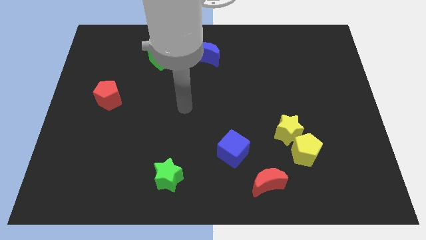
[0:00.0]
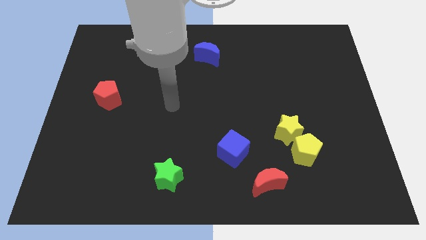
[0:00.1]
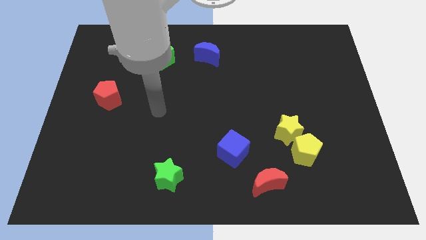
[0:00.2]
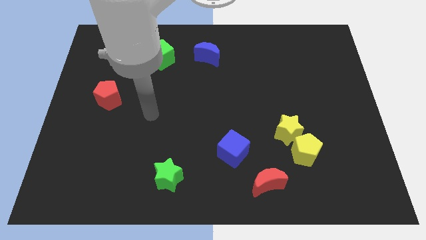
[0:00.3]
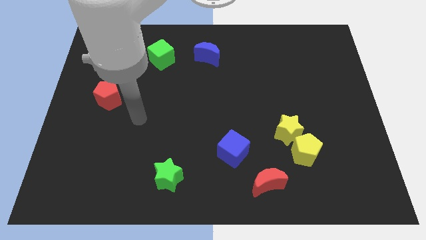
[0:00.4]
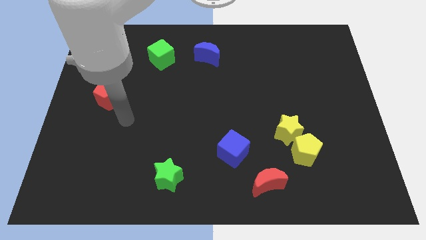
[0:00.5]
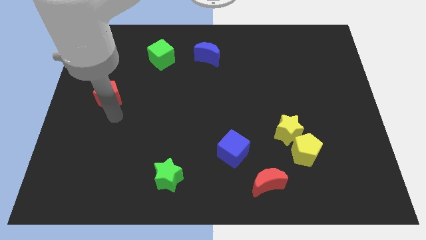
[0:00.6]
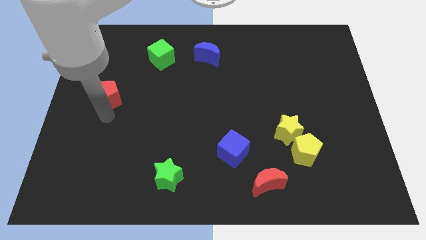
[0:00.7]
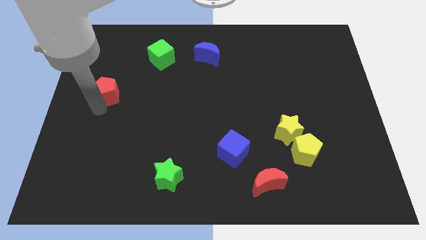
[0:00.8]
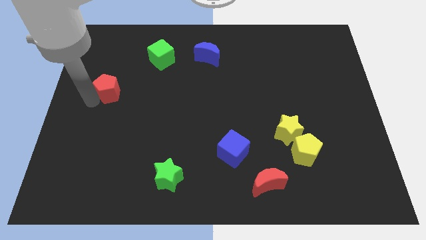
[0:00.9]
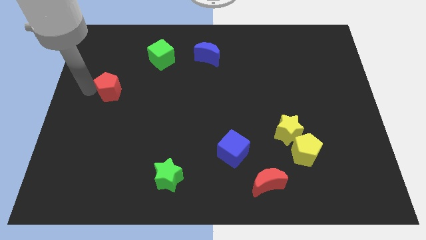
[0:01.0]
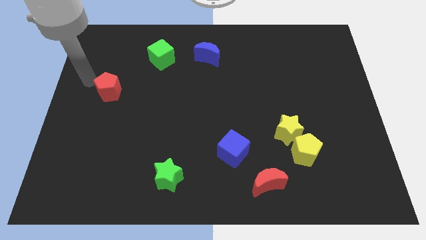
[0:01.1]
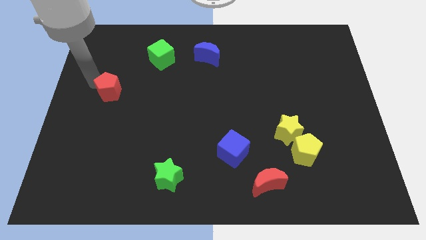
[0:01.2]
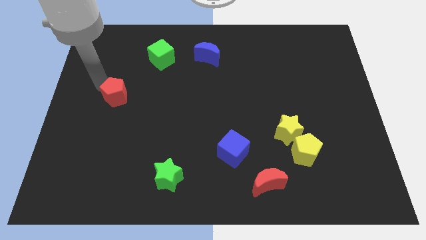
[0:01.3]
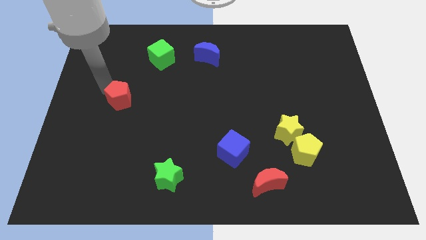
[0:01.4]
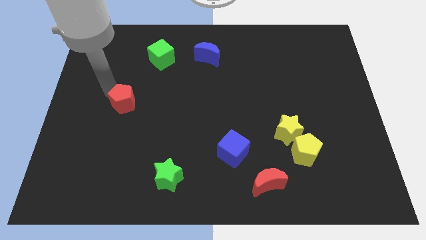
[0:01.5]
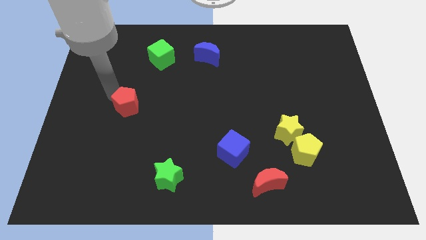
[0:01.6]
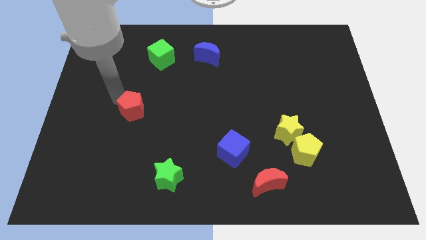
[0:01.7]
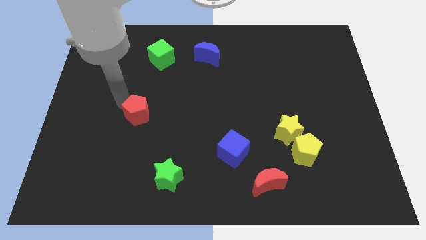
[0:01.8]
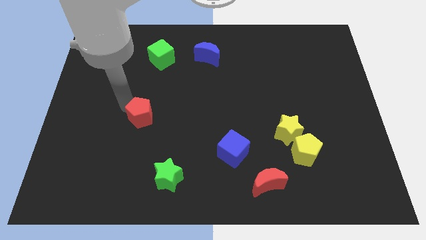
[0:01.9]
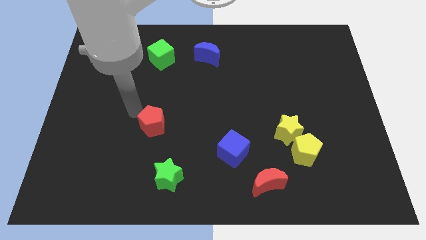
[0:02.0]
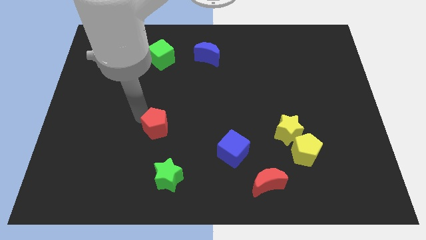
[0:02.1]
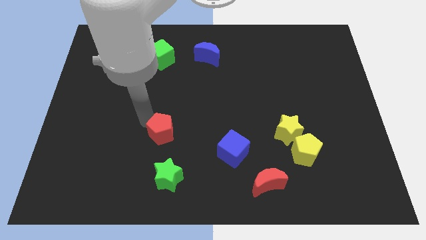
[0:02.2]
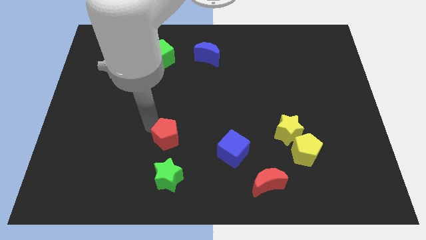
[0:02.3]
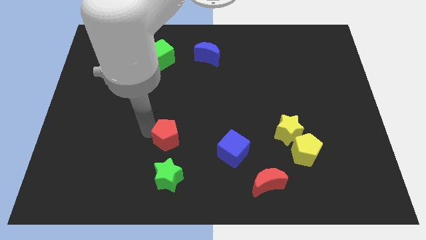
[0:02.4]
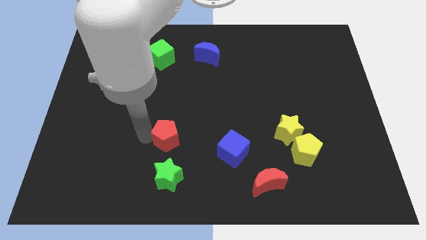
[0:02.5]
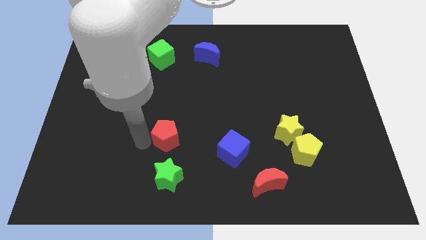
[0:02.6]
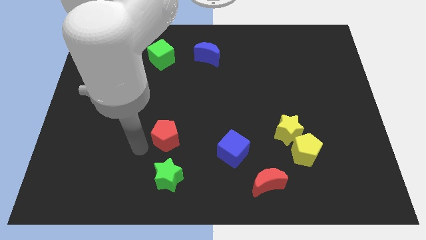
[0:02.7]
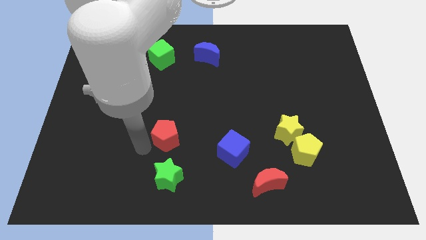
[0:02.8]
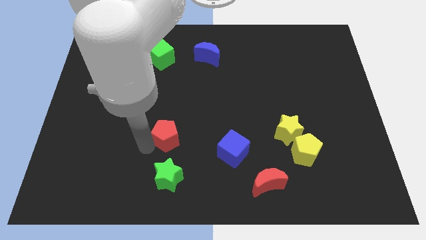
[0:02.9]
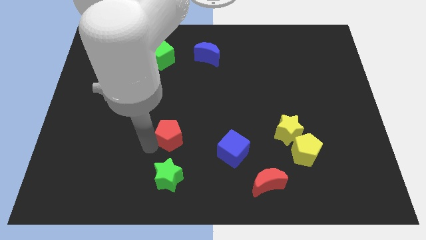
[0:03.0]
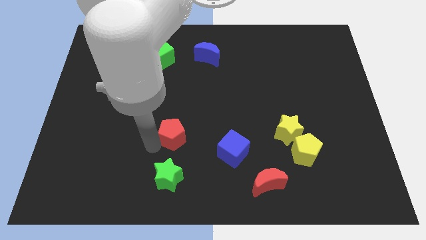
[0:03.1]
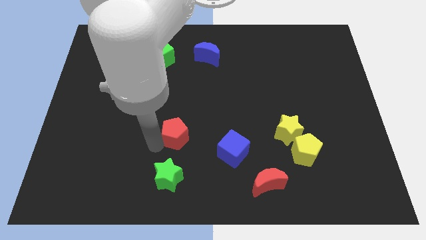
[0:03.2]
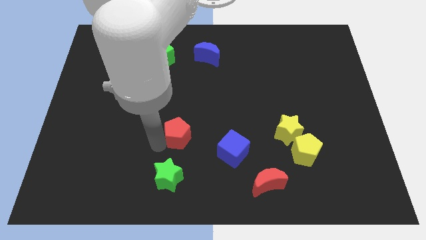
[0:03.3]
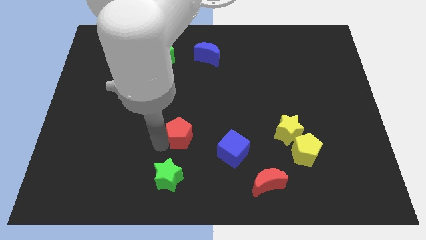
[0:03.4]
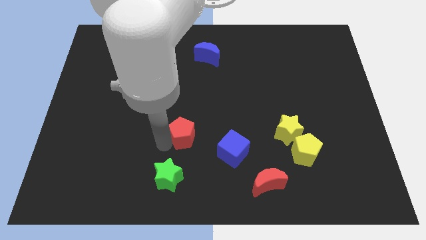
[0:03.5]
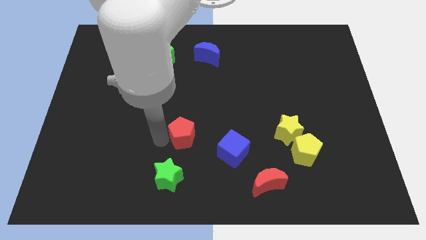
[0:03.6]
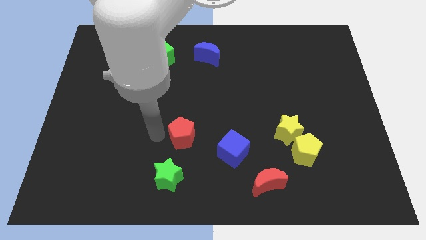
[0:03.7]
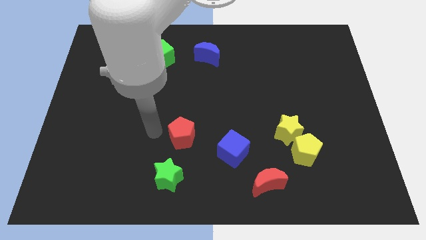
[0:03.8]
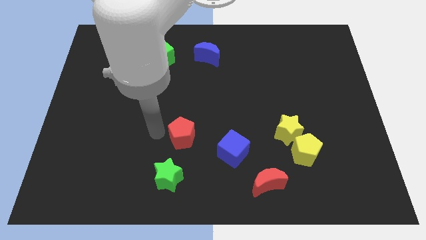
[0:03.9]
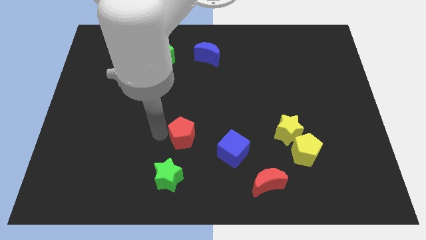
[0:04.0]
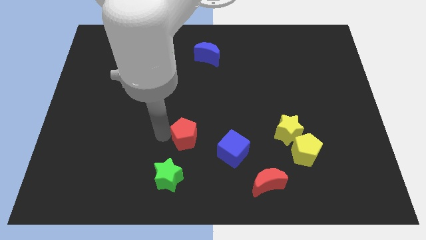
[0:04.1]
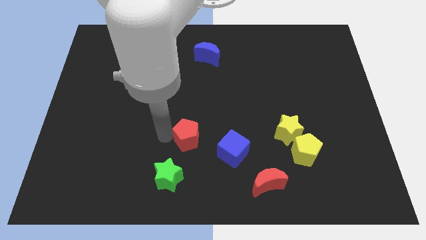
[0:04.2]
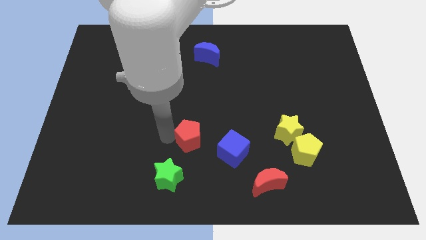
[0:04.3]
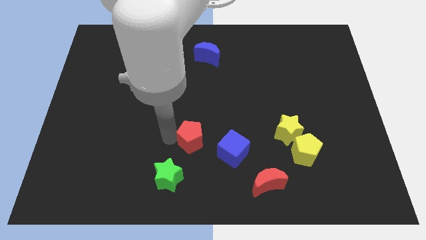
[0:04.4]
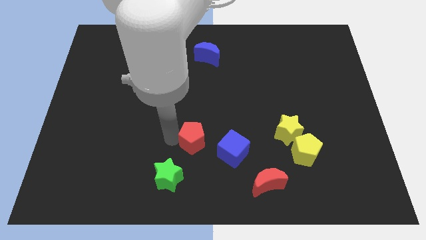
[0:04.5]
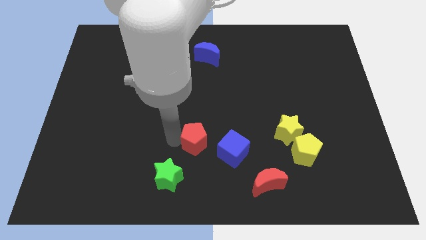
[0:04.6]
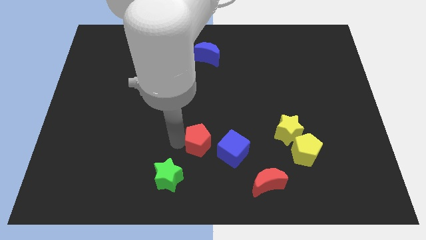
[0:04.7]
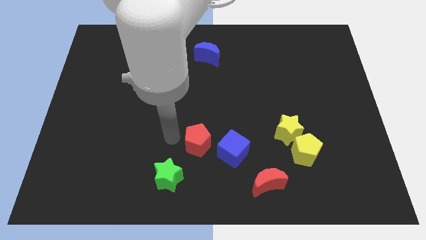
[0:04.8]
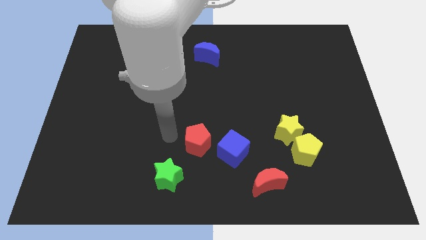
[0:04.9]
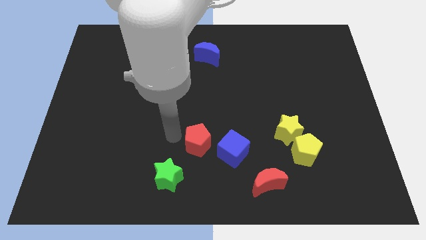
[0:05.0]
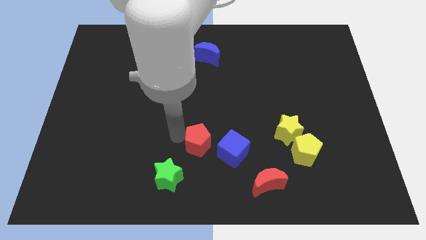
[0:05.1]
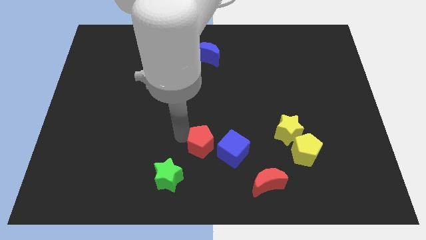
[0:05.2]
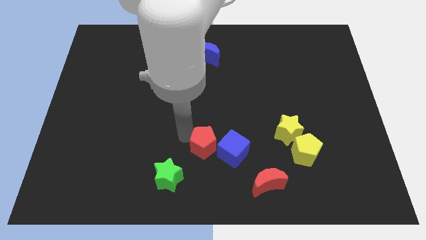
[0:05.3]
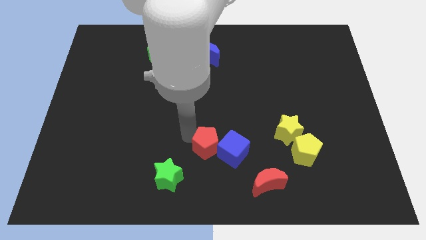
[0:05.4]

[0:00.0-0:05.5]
move the red pentagon next to the blue cube

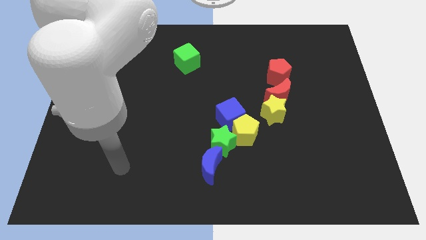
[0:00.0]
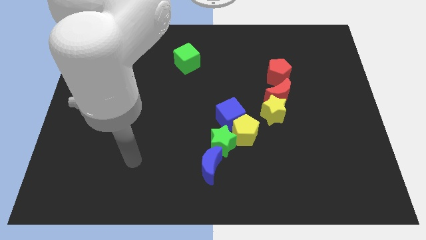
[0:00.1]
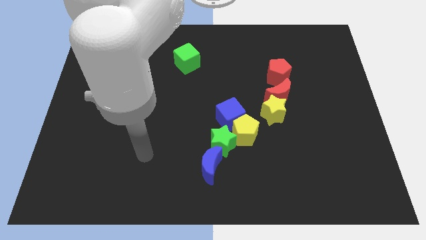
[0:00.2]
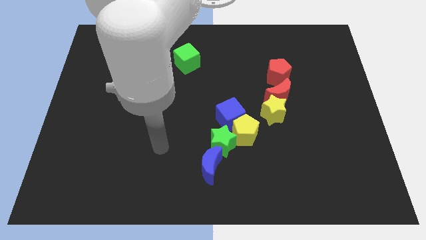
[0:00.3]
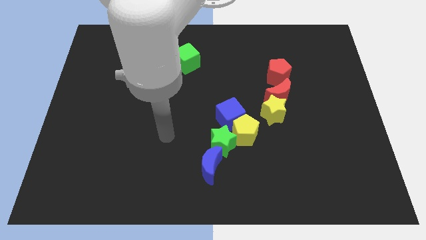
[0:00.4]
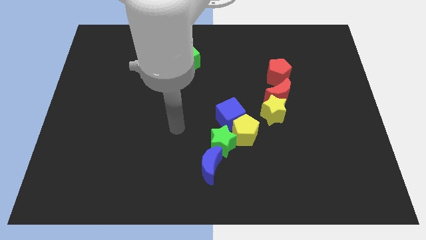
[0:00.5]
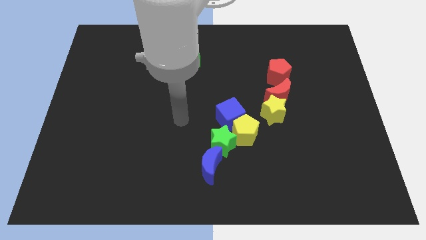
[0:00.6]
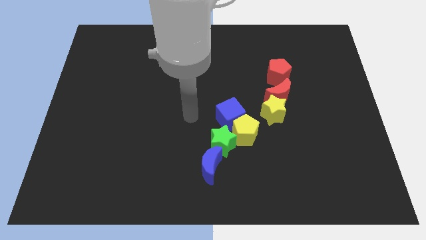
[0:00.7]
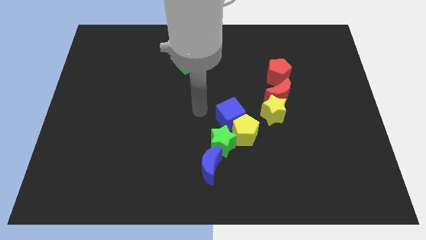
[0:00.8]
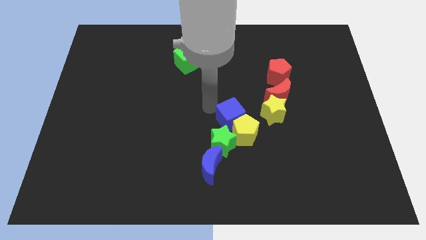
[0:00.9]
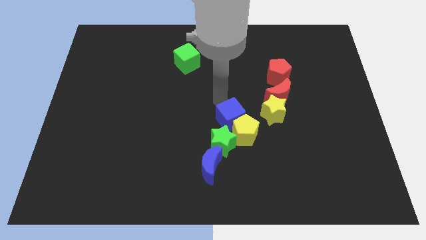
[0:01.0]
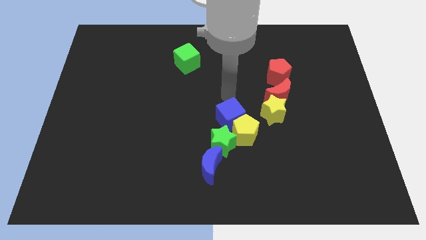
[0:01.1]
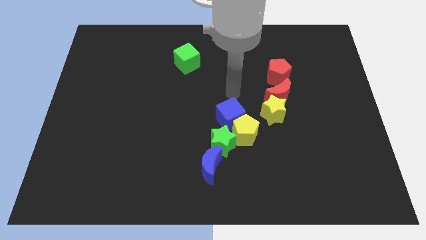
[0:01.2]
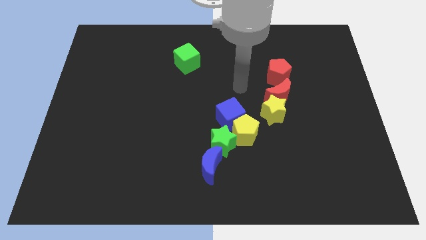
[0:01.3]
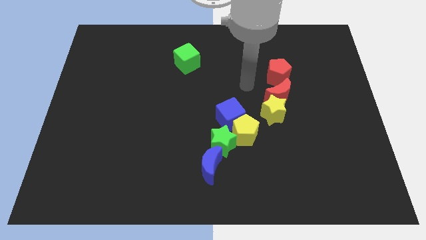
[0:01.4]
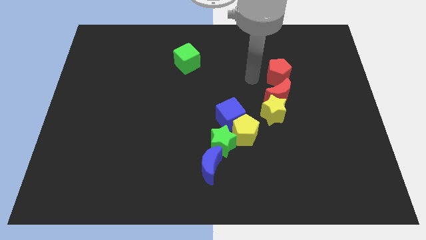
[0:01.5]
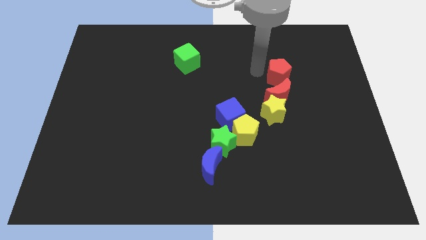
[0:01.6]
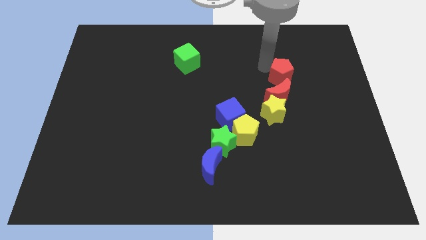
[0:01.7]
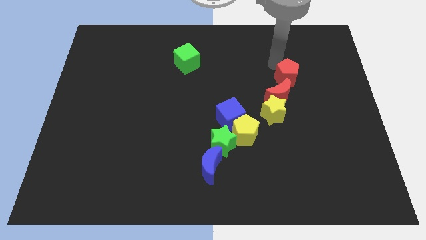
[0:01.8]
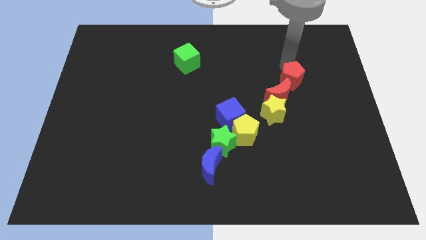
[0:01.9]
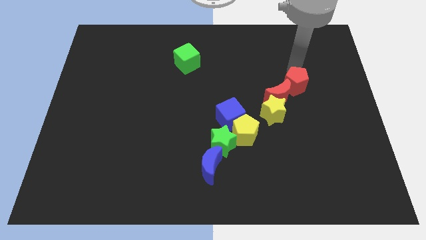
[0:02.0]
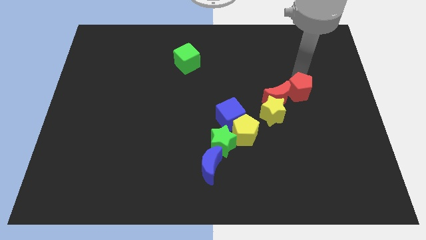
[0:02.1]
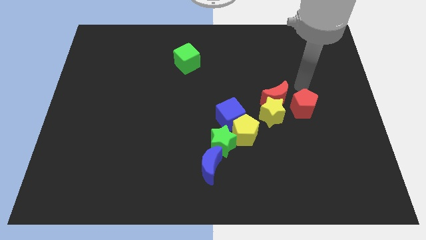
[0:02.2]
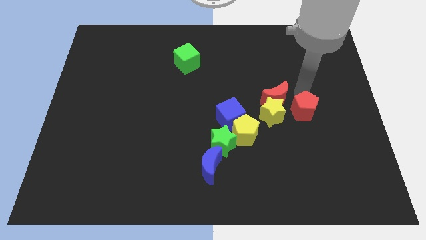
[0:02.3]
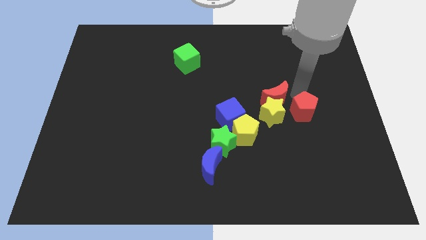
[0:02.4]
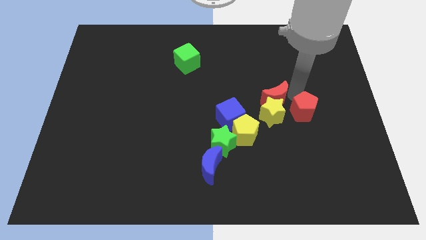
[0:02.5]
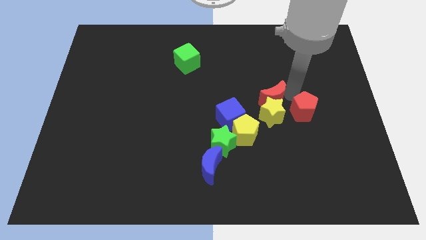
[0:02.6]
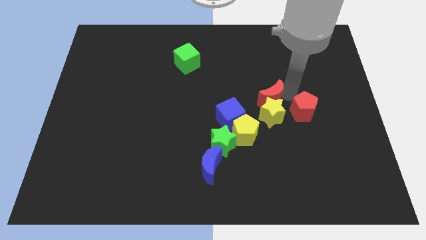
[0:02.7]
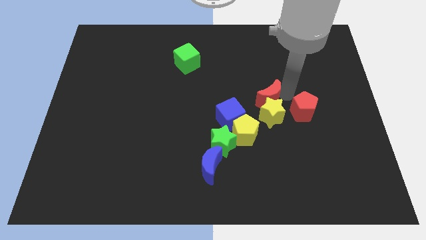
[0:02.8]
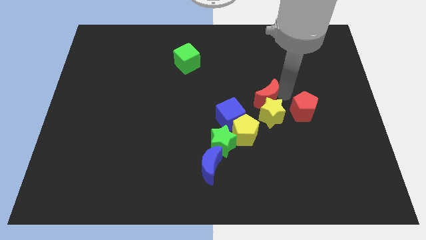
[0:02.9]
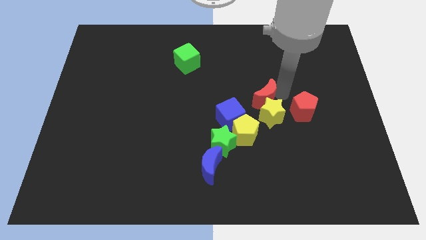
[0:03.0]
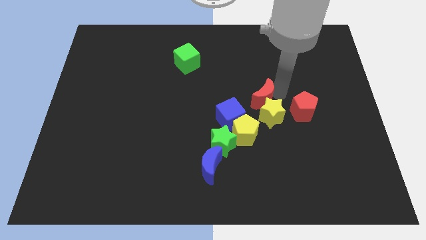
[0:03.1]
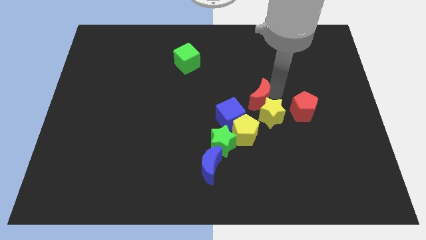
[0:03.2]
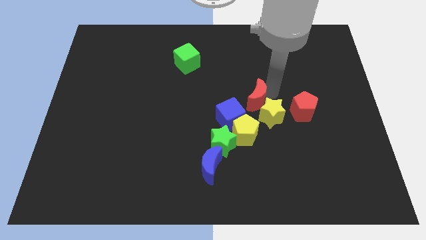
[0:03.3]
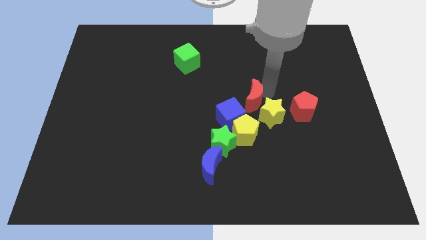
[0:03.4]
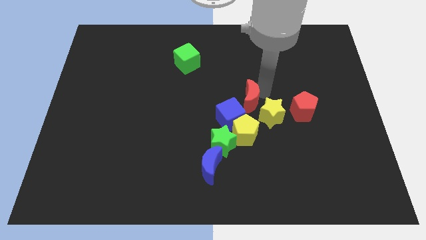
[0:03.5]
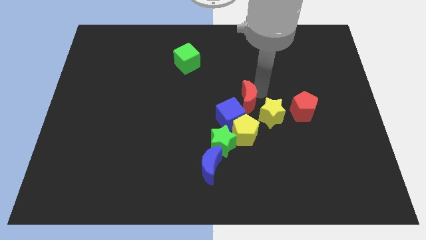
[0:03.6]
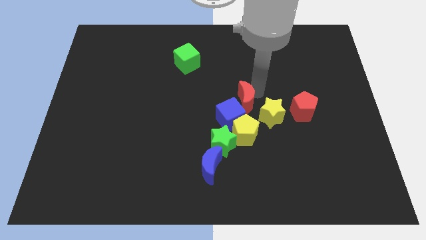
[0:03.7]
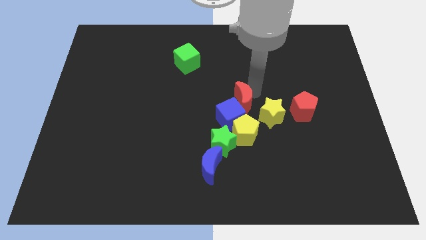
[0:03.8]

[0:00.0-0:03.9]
put the red moon to the blue cube
